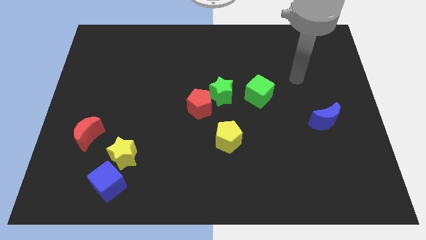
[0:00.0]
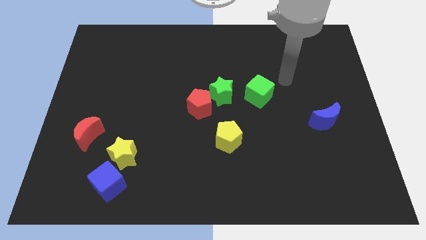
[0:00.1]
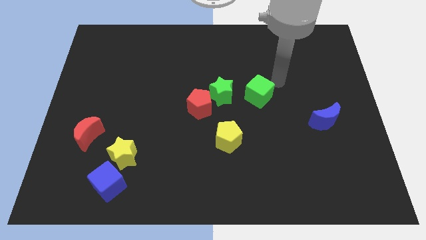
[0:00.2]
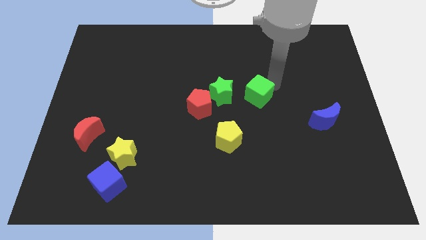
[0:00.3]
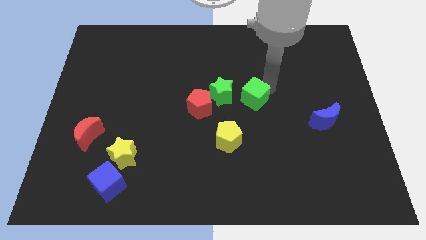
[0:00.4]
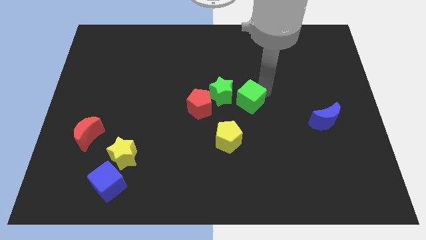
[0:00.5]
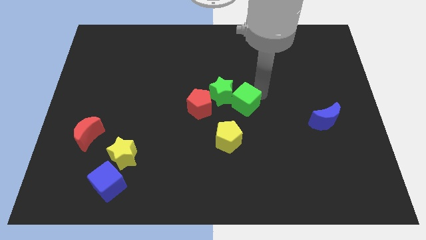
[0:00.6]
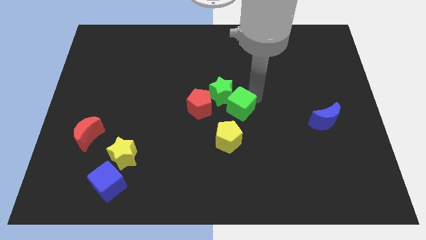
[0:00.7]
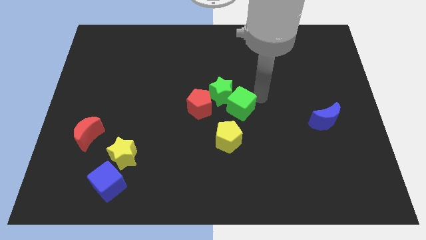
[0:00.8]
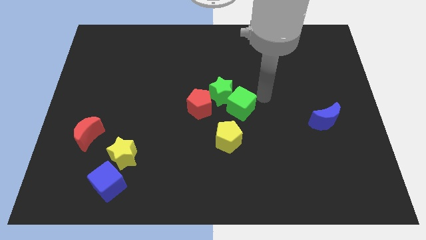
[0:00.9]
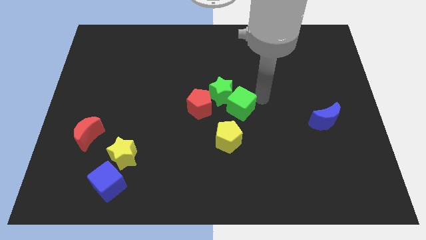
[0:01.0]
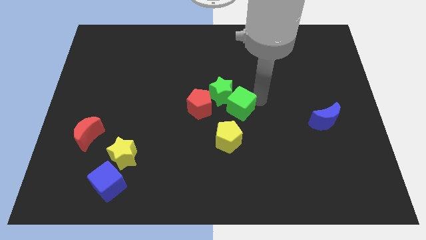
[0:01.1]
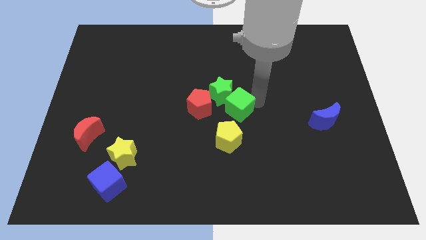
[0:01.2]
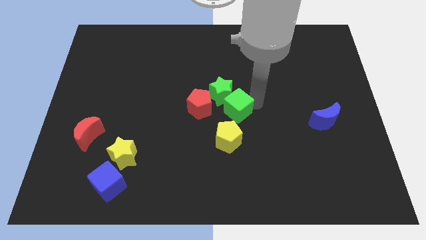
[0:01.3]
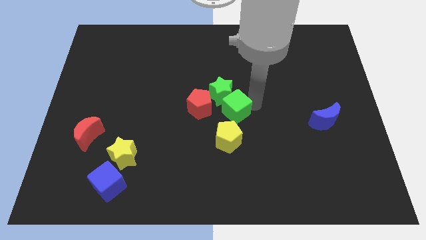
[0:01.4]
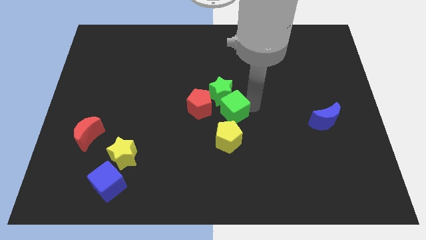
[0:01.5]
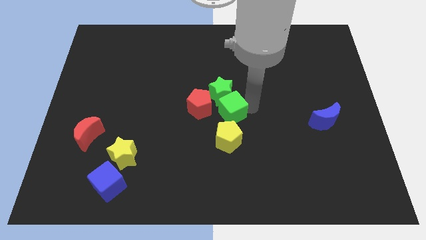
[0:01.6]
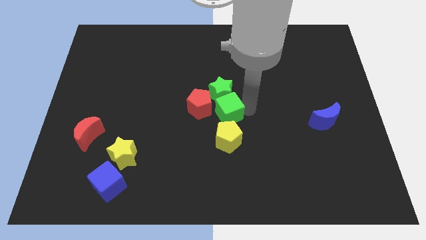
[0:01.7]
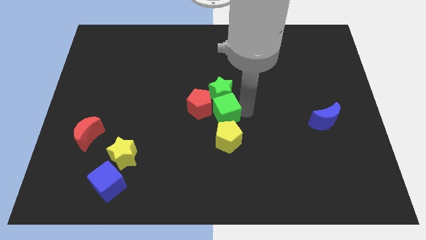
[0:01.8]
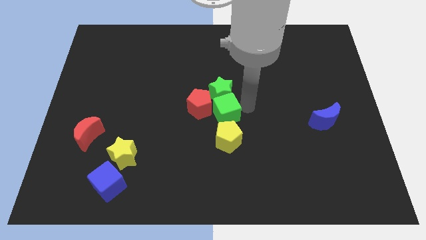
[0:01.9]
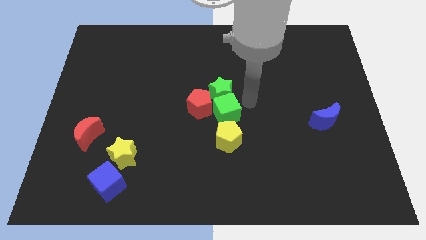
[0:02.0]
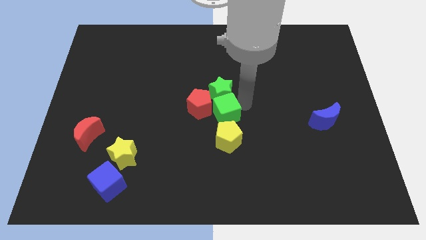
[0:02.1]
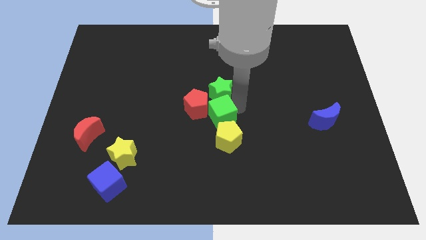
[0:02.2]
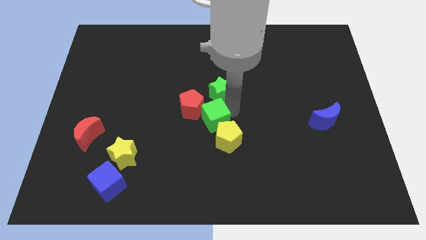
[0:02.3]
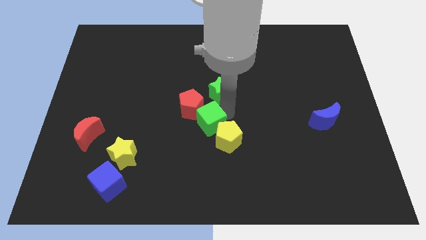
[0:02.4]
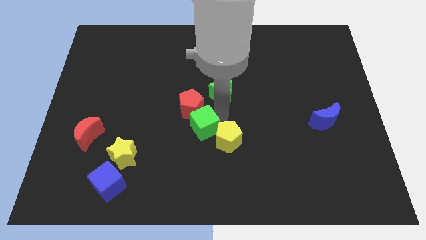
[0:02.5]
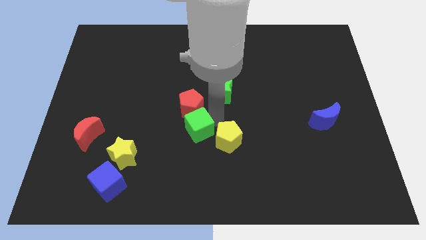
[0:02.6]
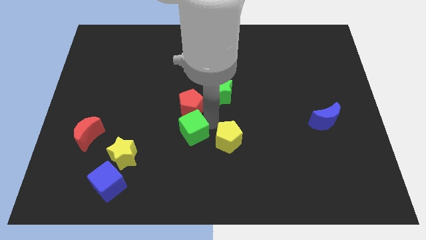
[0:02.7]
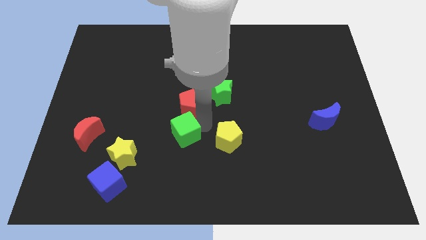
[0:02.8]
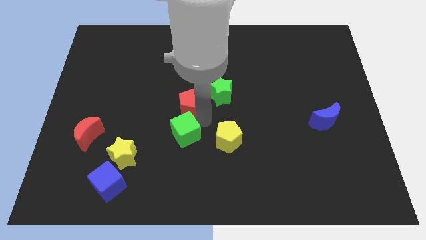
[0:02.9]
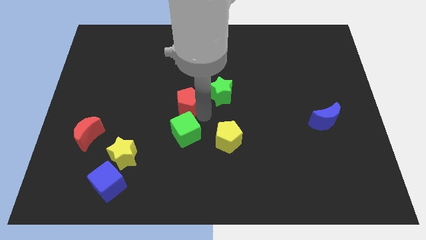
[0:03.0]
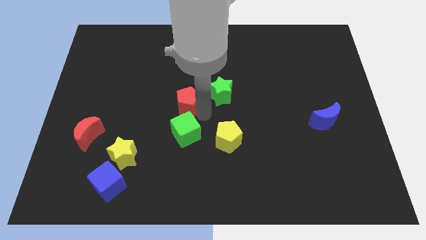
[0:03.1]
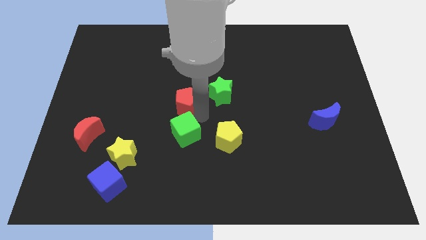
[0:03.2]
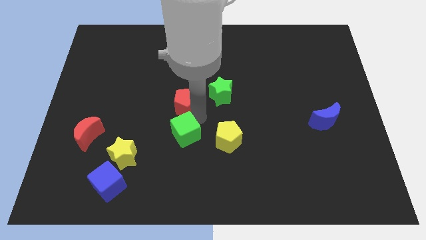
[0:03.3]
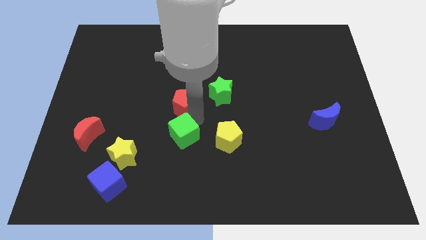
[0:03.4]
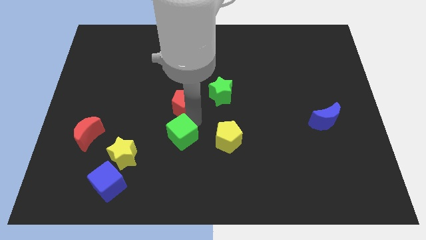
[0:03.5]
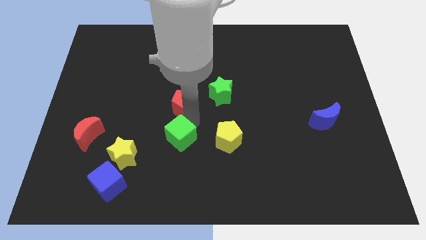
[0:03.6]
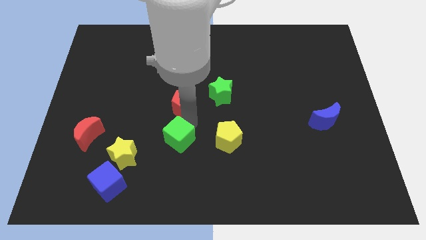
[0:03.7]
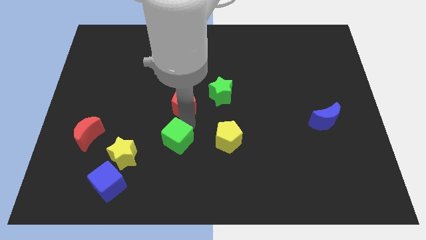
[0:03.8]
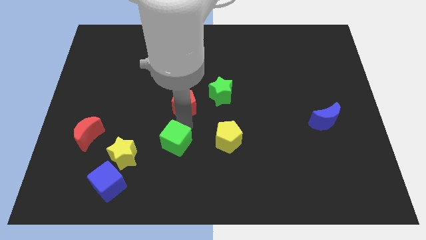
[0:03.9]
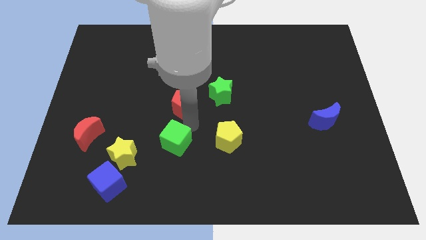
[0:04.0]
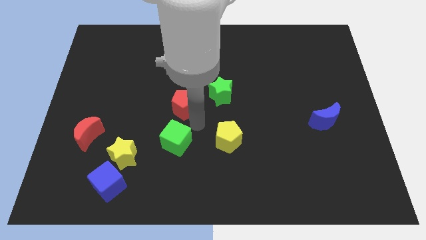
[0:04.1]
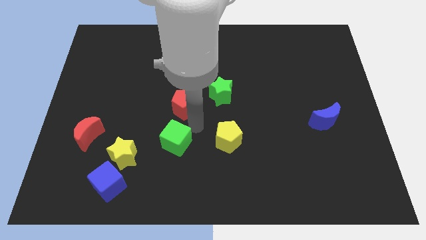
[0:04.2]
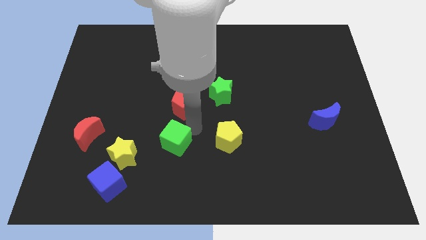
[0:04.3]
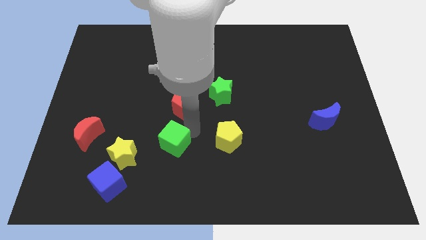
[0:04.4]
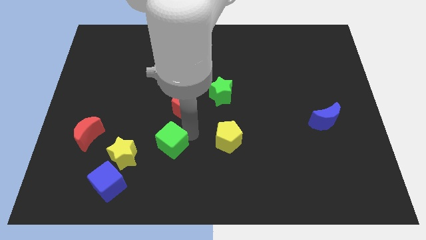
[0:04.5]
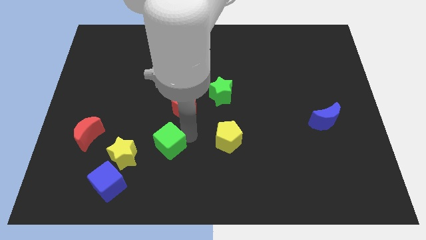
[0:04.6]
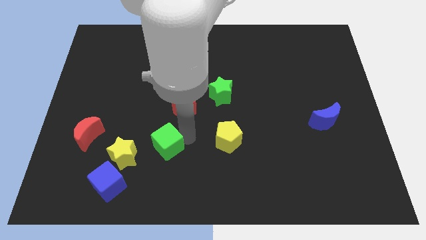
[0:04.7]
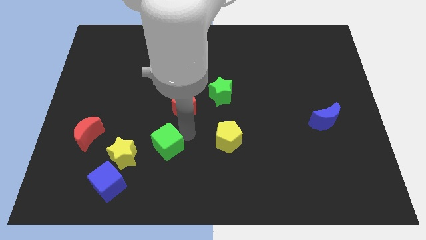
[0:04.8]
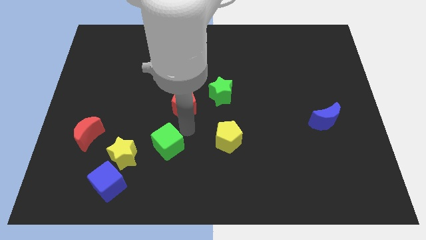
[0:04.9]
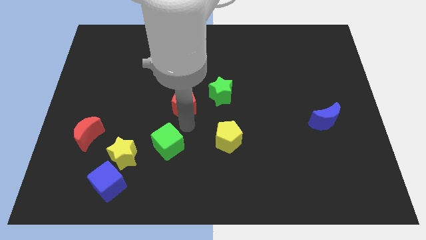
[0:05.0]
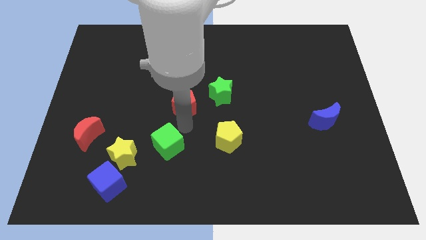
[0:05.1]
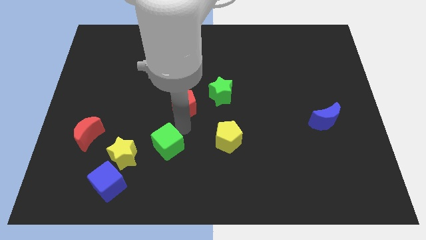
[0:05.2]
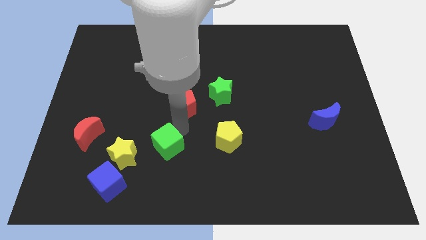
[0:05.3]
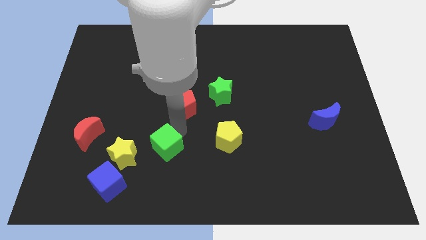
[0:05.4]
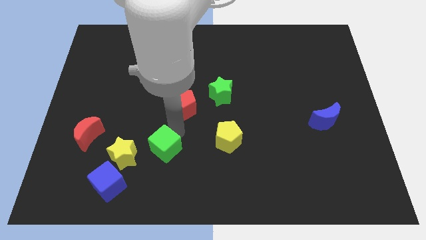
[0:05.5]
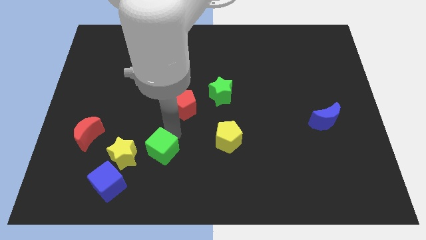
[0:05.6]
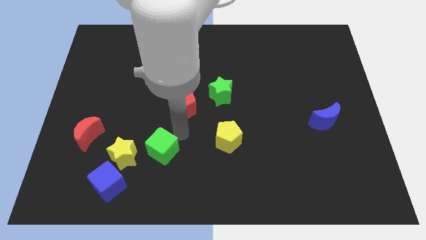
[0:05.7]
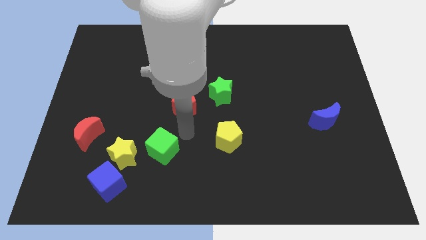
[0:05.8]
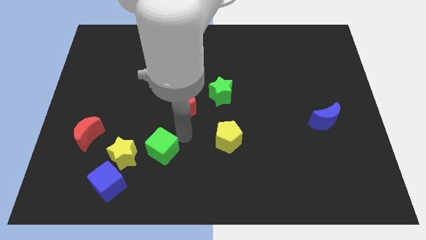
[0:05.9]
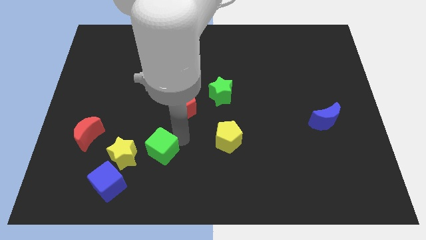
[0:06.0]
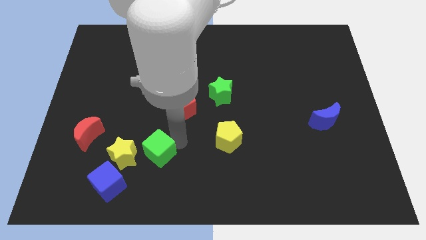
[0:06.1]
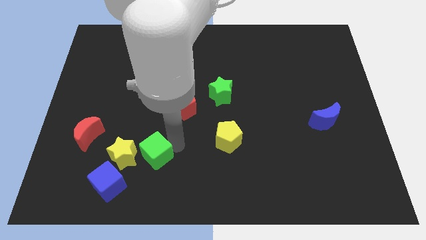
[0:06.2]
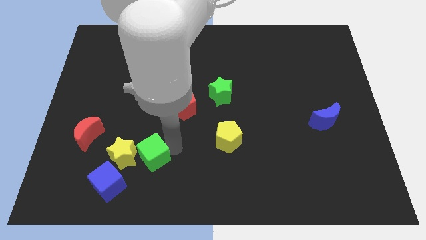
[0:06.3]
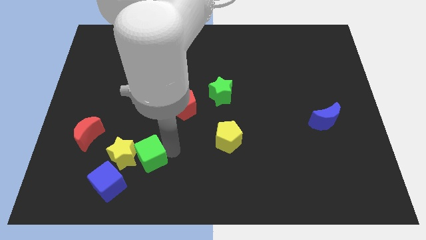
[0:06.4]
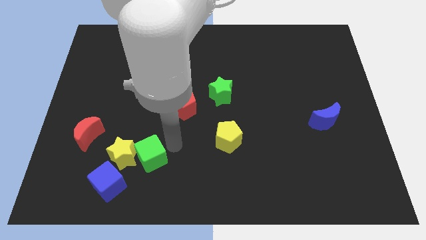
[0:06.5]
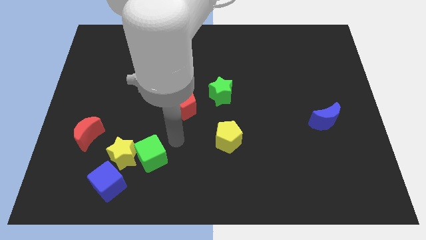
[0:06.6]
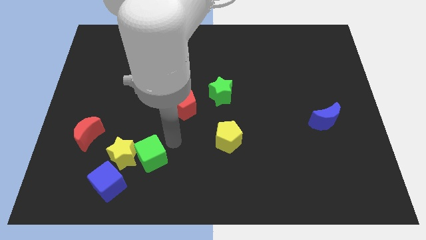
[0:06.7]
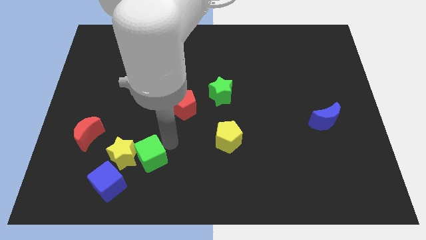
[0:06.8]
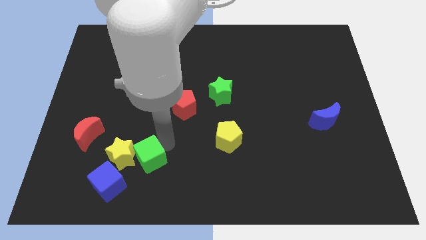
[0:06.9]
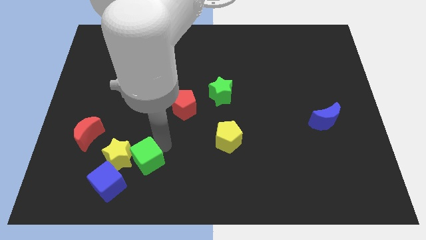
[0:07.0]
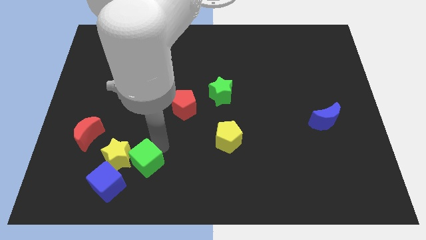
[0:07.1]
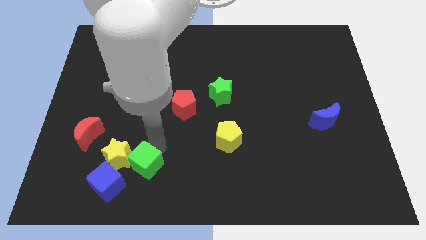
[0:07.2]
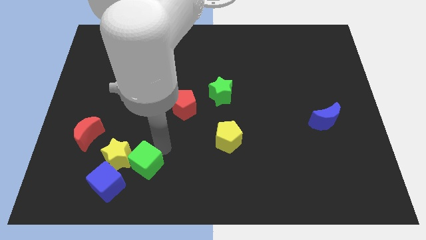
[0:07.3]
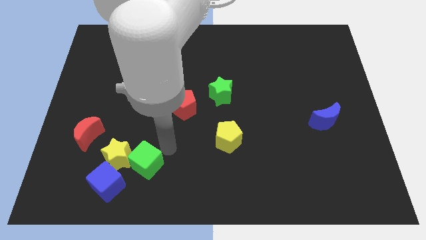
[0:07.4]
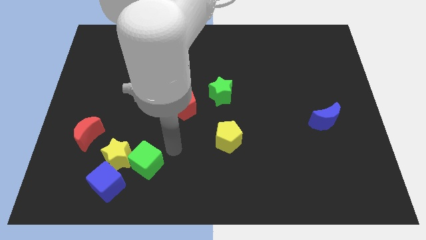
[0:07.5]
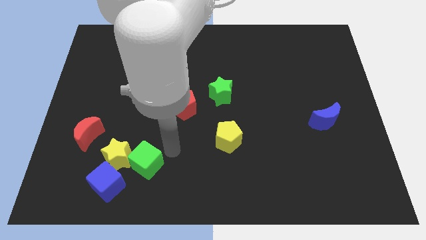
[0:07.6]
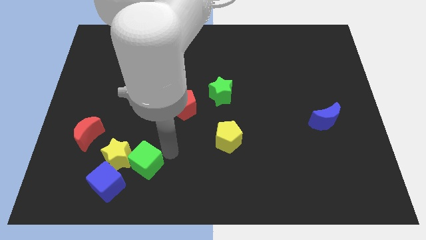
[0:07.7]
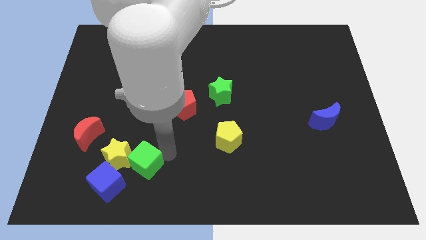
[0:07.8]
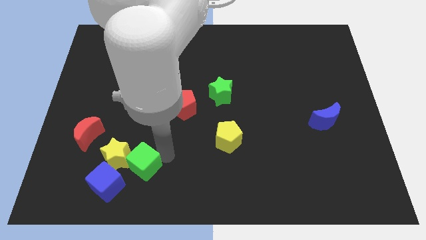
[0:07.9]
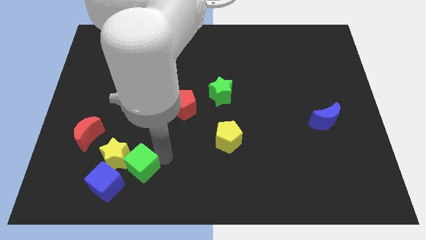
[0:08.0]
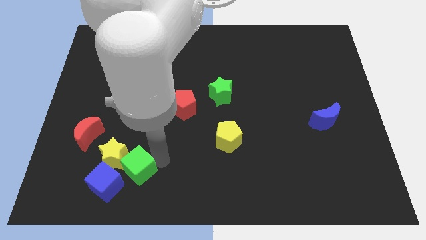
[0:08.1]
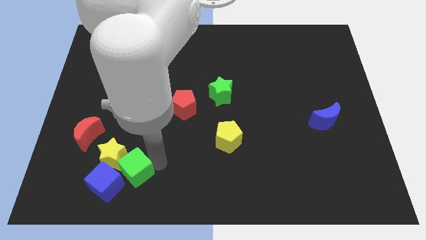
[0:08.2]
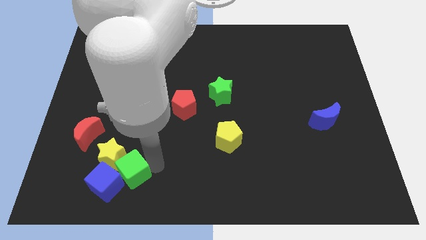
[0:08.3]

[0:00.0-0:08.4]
slide the green cube to the blue cube
